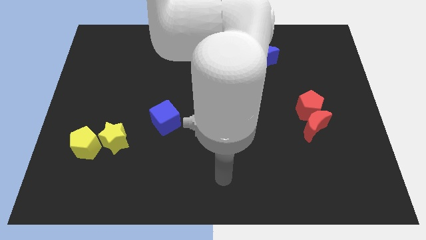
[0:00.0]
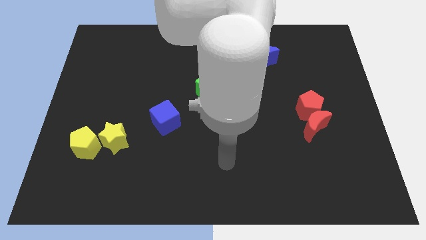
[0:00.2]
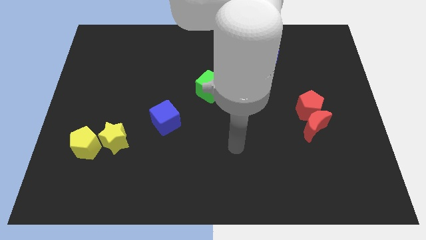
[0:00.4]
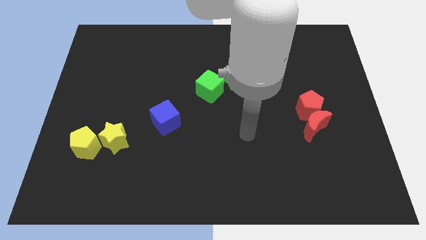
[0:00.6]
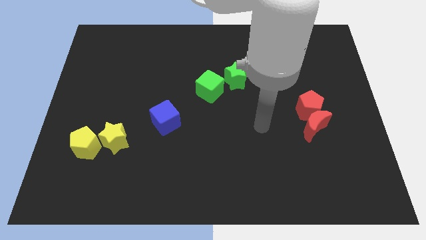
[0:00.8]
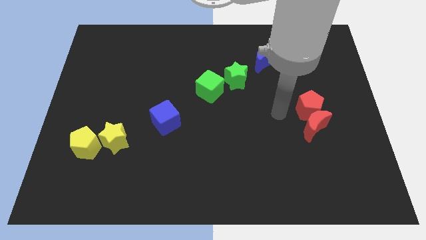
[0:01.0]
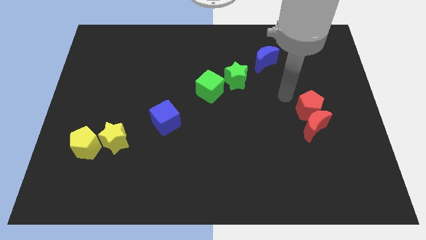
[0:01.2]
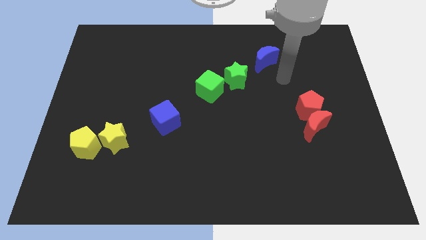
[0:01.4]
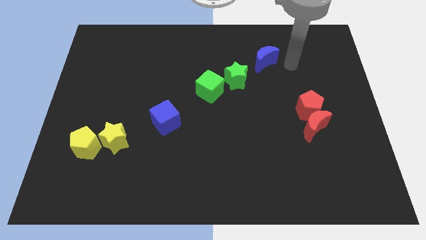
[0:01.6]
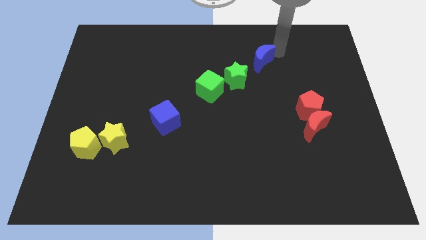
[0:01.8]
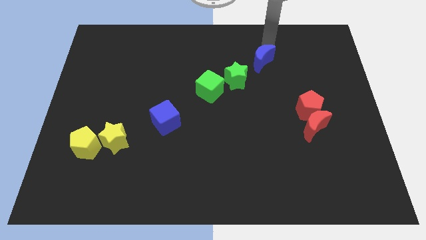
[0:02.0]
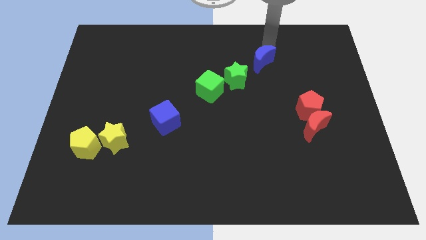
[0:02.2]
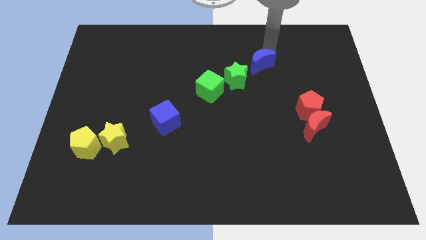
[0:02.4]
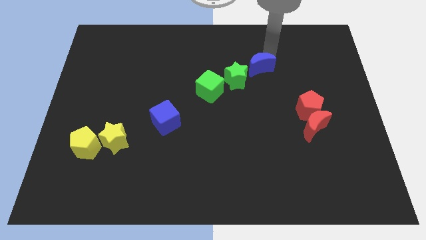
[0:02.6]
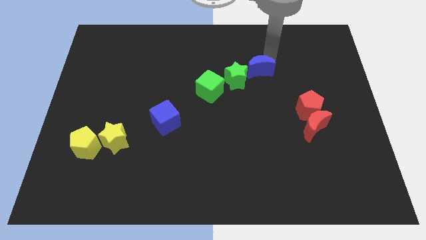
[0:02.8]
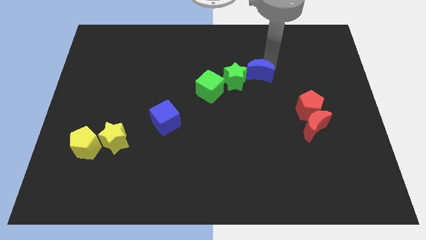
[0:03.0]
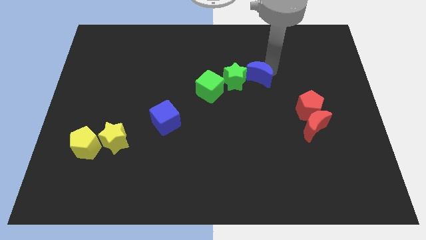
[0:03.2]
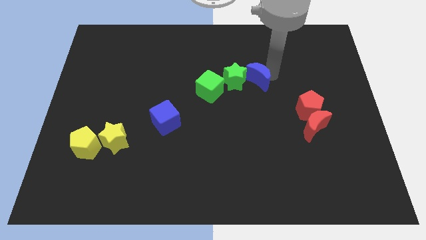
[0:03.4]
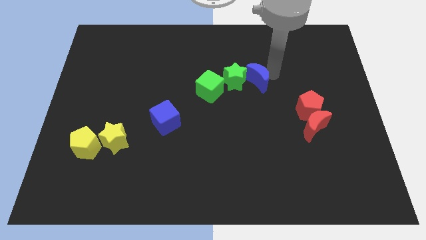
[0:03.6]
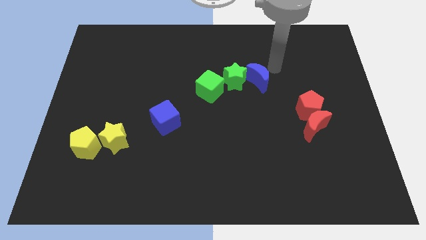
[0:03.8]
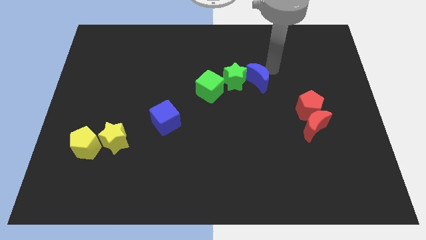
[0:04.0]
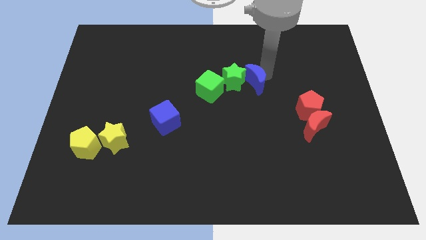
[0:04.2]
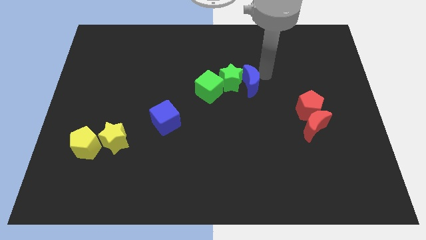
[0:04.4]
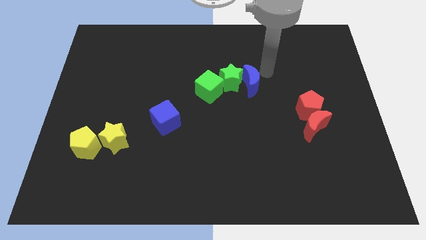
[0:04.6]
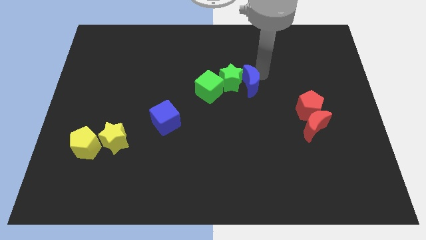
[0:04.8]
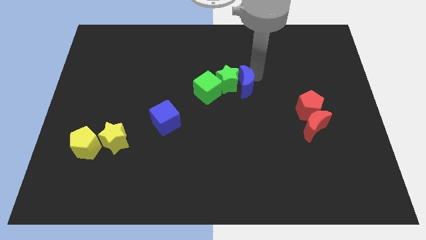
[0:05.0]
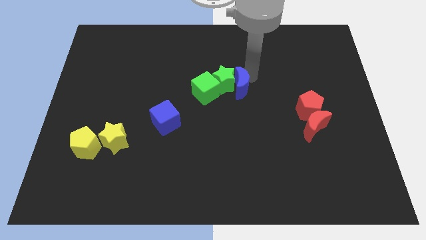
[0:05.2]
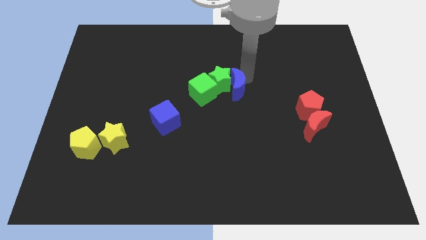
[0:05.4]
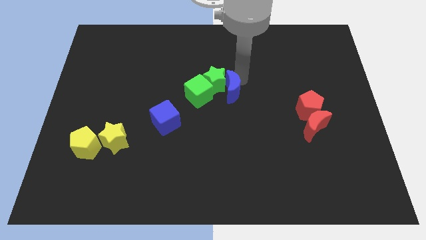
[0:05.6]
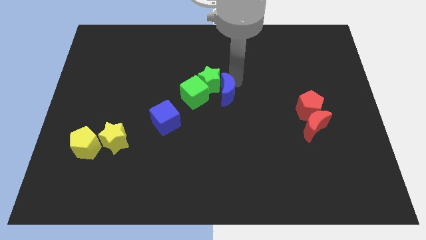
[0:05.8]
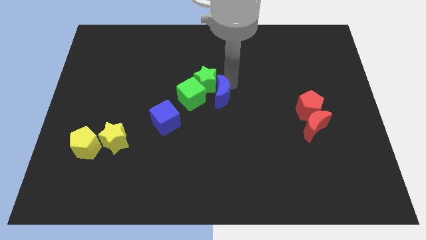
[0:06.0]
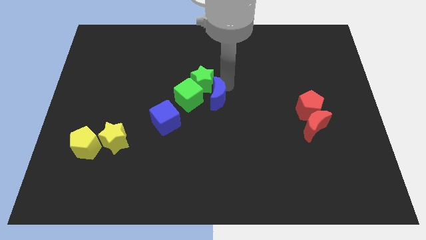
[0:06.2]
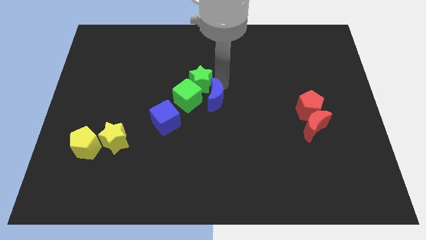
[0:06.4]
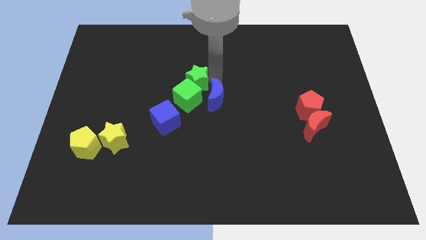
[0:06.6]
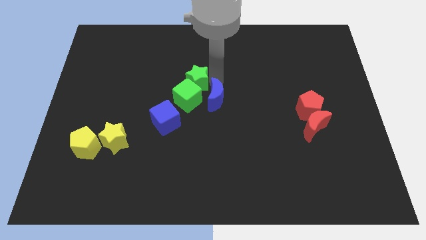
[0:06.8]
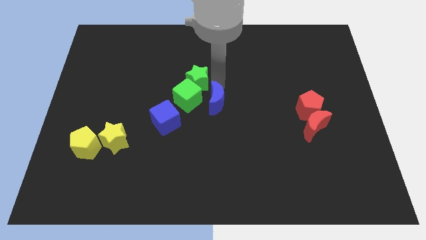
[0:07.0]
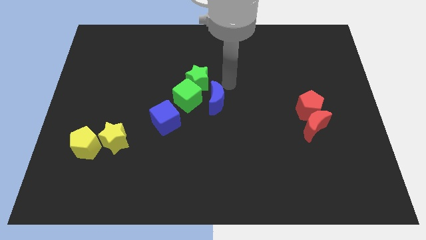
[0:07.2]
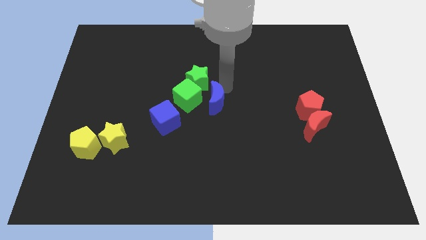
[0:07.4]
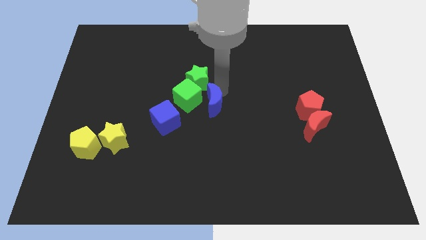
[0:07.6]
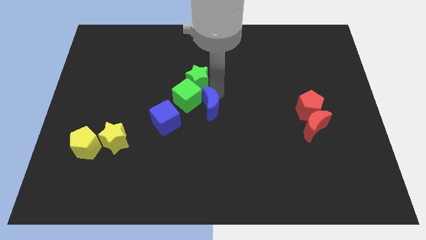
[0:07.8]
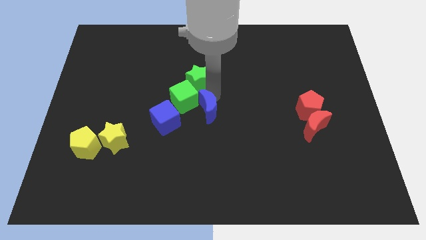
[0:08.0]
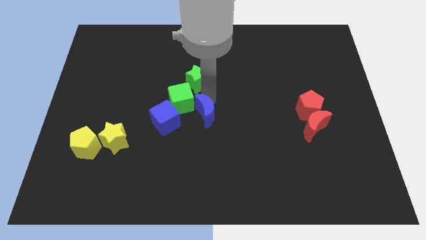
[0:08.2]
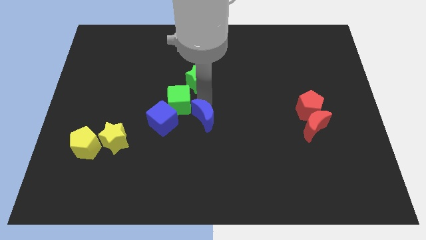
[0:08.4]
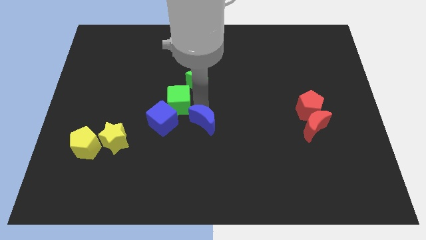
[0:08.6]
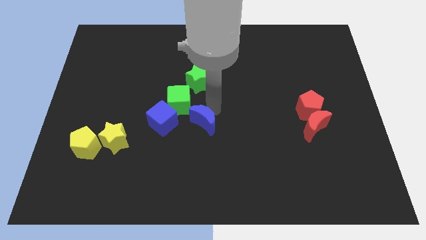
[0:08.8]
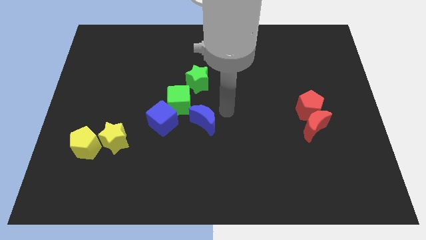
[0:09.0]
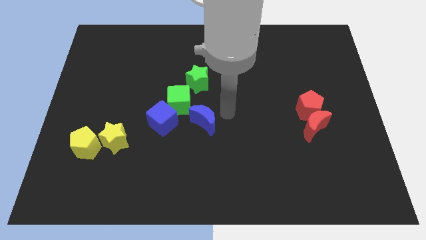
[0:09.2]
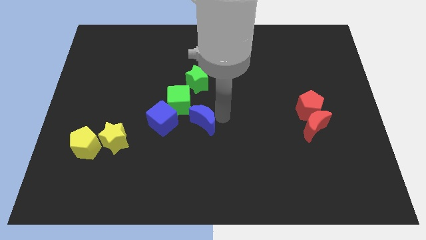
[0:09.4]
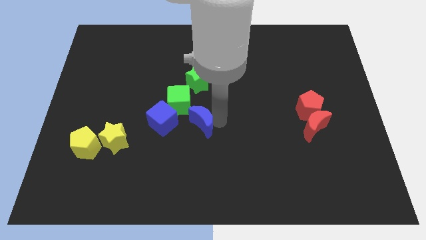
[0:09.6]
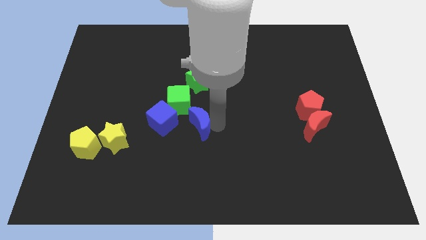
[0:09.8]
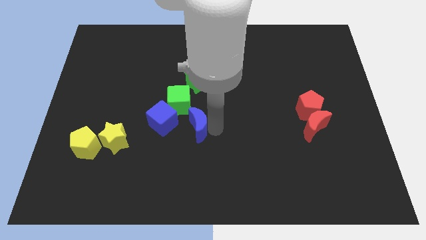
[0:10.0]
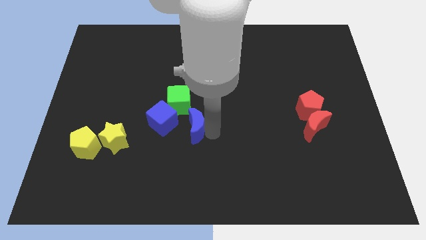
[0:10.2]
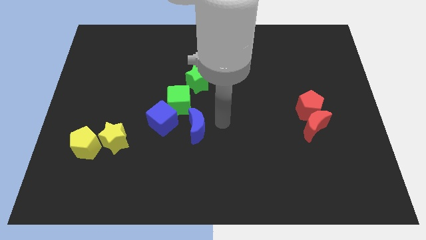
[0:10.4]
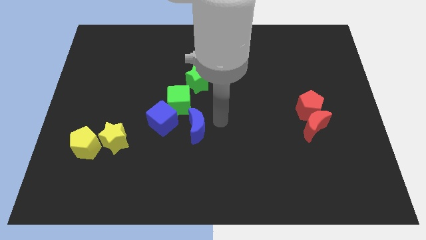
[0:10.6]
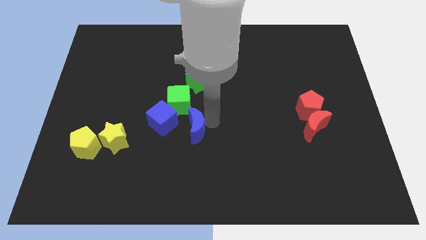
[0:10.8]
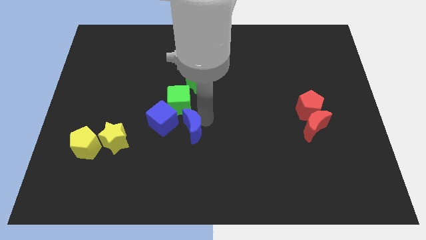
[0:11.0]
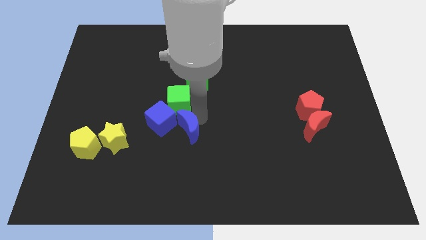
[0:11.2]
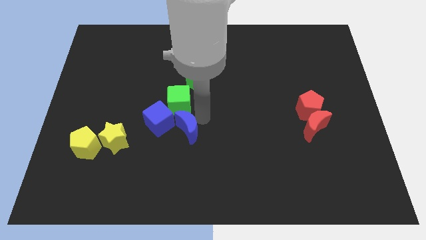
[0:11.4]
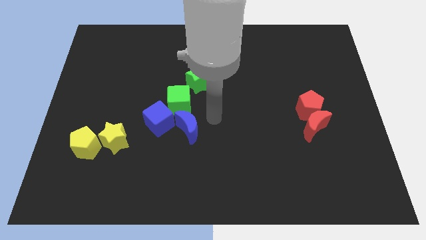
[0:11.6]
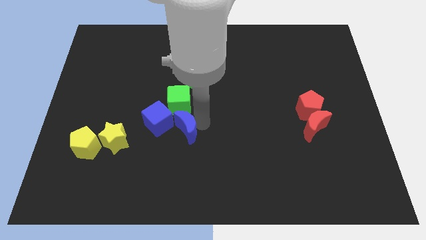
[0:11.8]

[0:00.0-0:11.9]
put the blue moon to the right of the yellow star

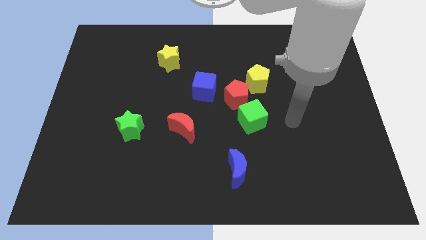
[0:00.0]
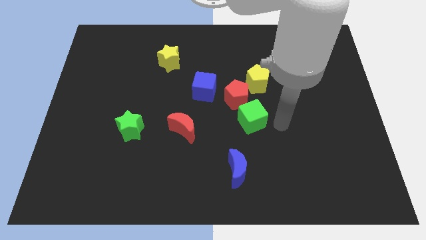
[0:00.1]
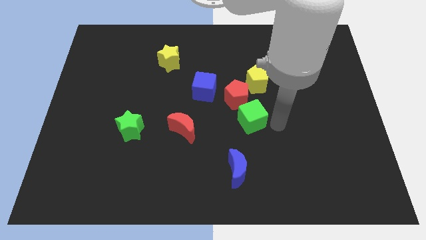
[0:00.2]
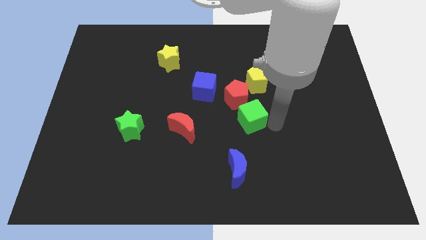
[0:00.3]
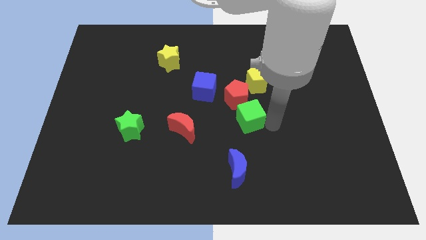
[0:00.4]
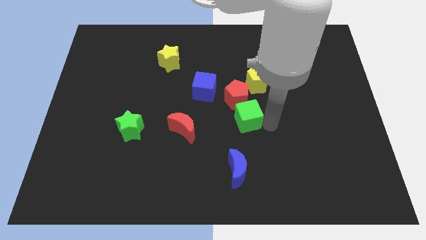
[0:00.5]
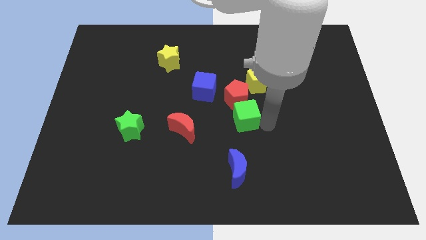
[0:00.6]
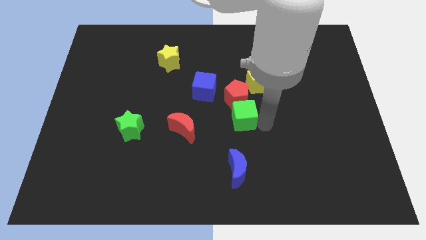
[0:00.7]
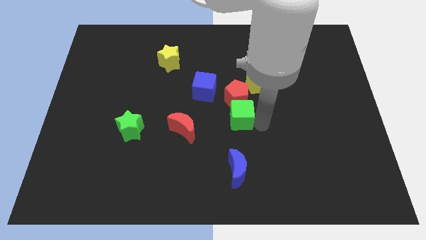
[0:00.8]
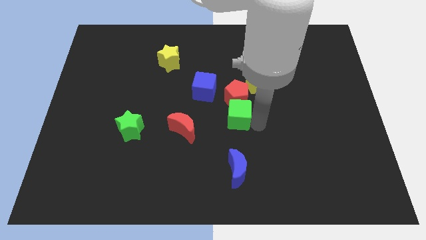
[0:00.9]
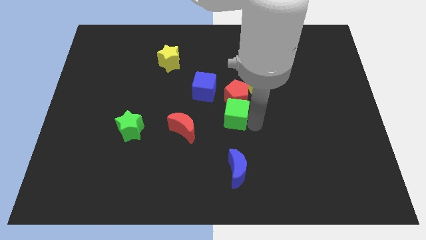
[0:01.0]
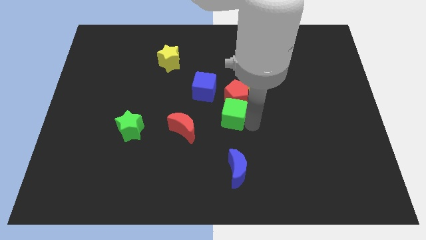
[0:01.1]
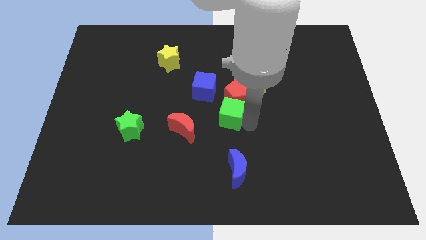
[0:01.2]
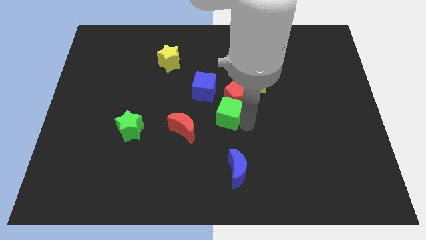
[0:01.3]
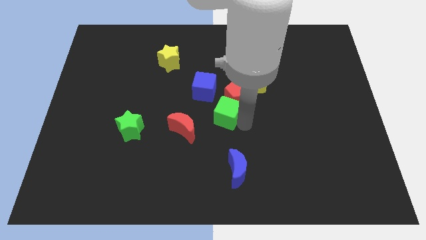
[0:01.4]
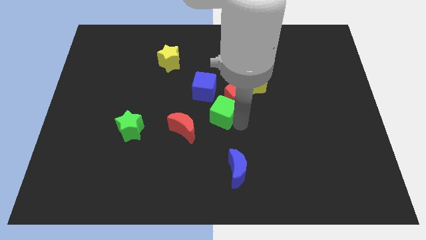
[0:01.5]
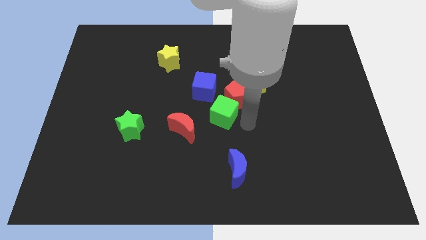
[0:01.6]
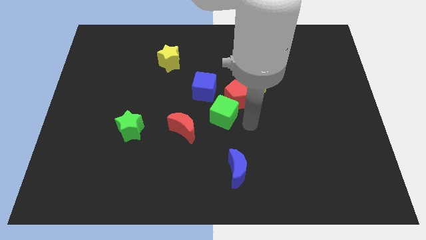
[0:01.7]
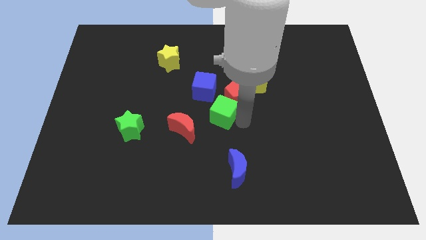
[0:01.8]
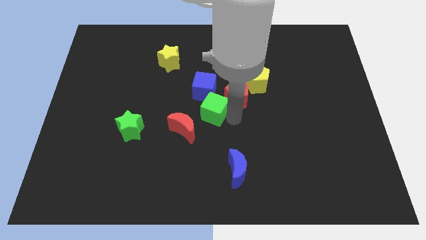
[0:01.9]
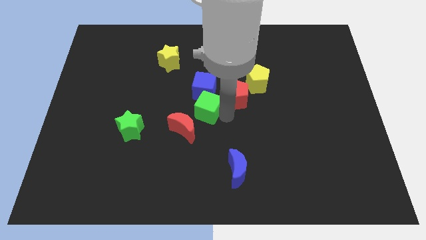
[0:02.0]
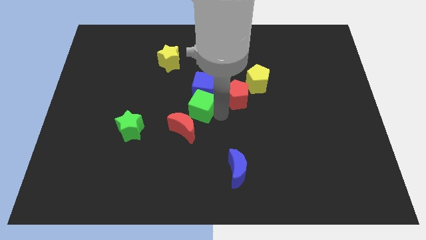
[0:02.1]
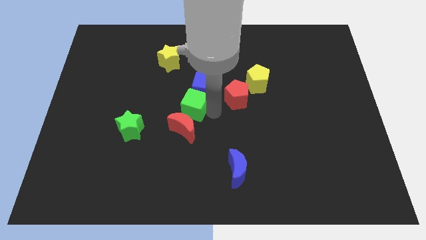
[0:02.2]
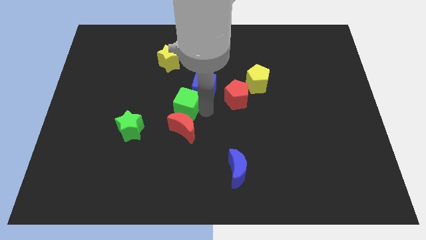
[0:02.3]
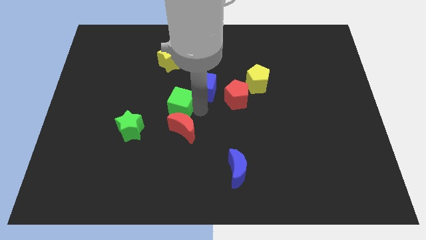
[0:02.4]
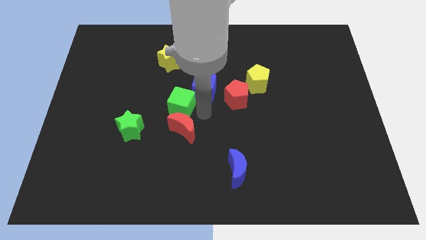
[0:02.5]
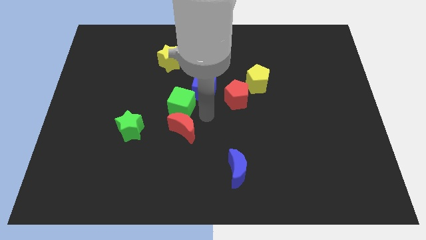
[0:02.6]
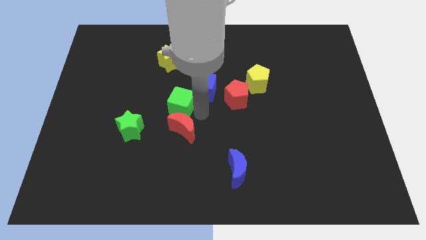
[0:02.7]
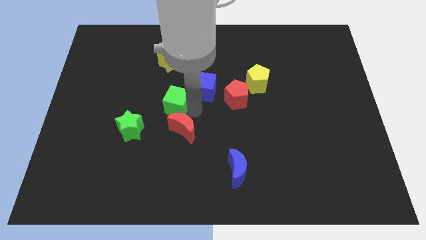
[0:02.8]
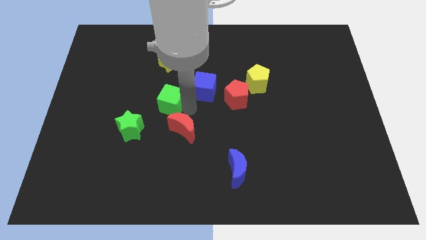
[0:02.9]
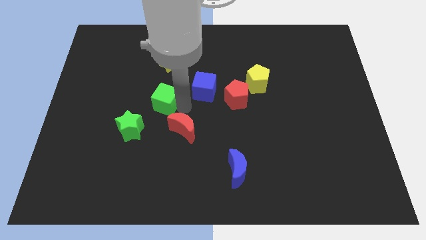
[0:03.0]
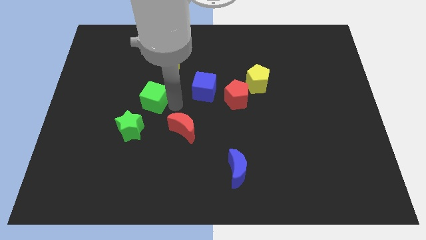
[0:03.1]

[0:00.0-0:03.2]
move the green cube to the top of the green star
